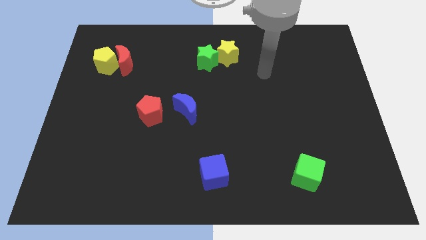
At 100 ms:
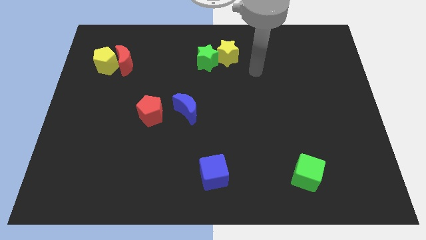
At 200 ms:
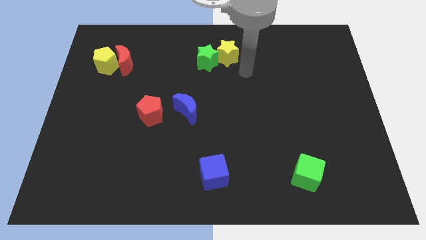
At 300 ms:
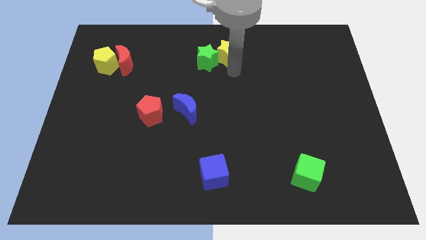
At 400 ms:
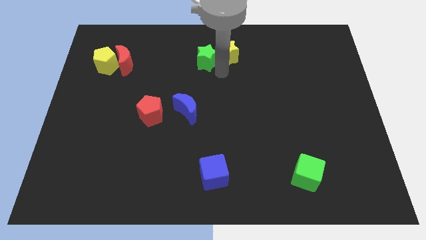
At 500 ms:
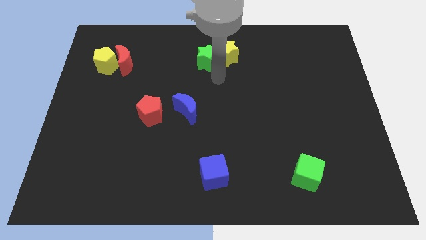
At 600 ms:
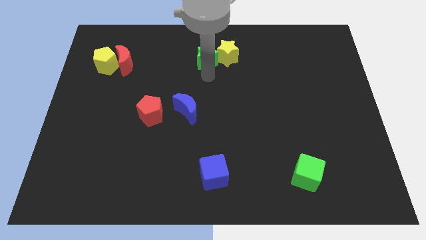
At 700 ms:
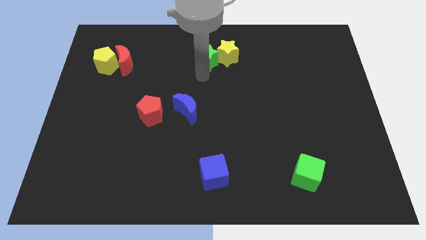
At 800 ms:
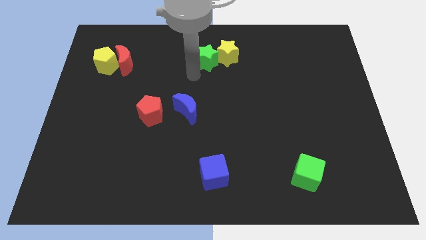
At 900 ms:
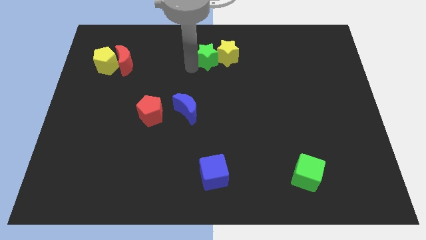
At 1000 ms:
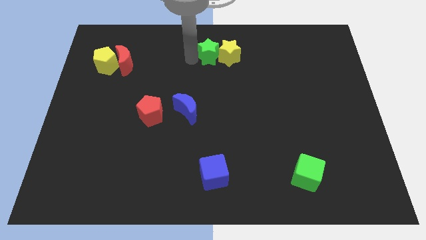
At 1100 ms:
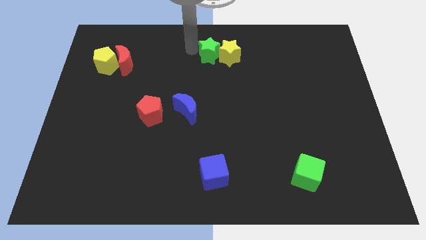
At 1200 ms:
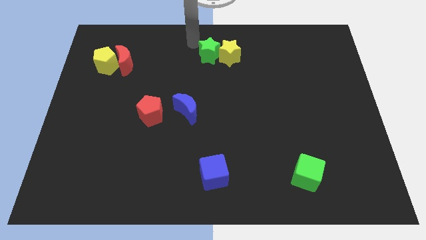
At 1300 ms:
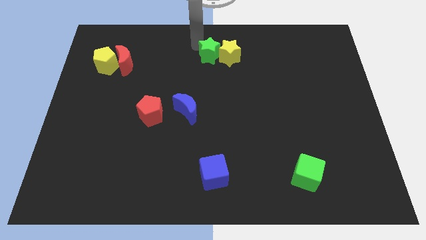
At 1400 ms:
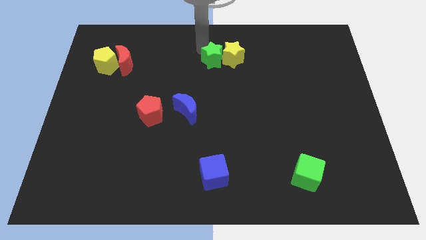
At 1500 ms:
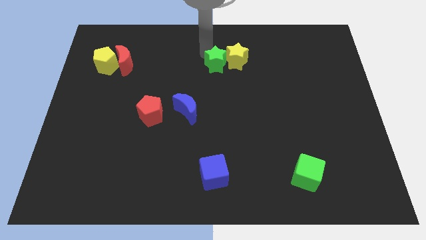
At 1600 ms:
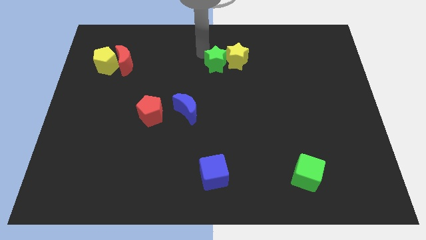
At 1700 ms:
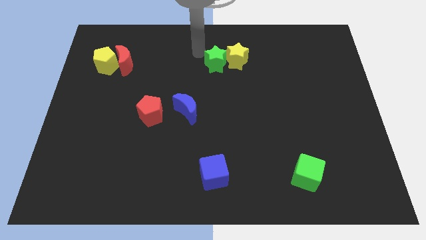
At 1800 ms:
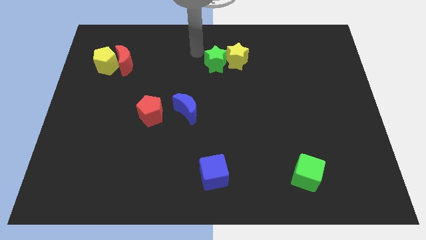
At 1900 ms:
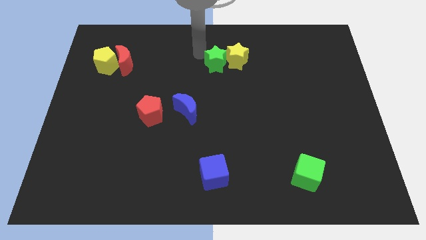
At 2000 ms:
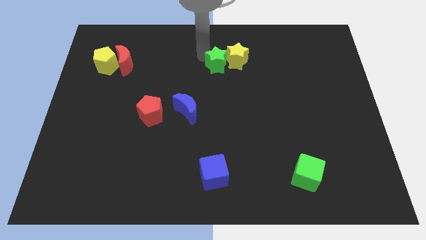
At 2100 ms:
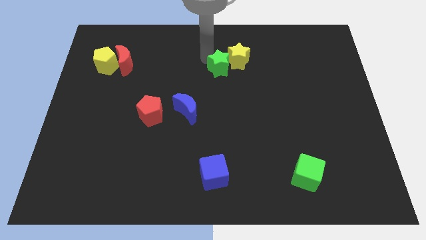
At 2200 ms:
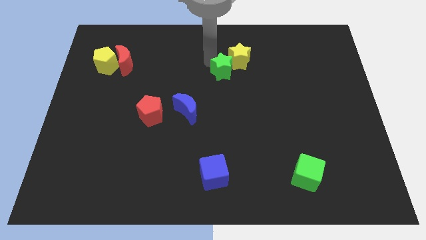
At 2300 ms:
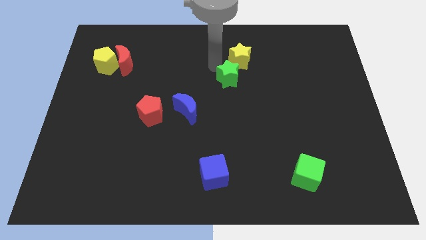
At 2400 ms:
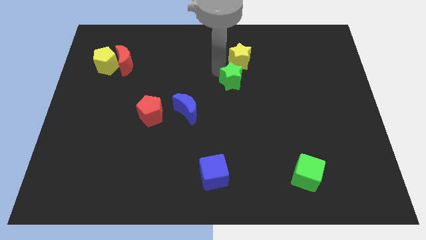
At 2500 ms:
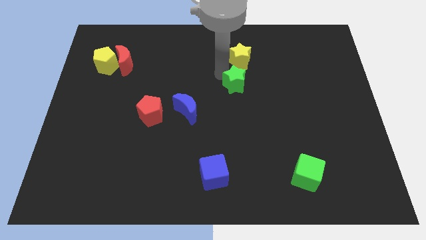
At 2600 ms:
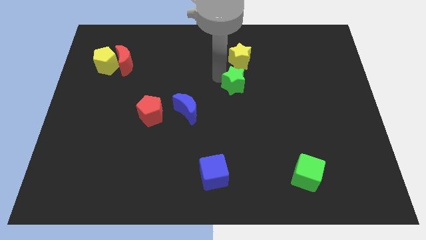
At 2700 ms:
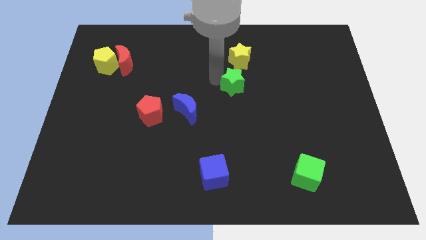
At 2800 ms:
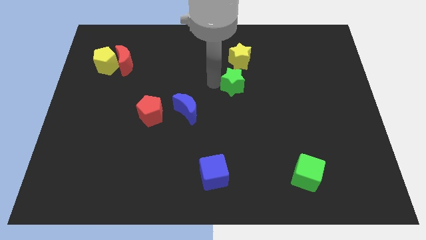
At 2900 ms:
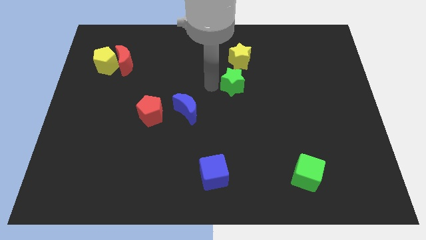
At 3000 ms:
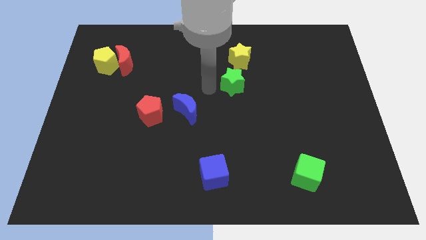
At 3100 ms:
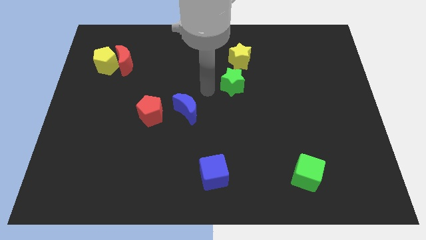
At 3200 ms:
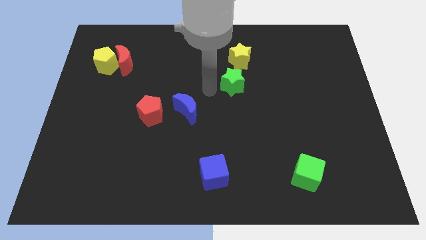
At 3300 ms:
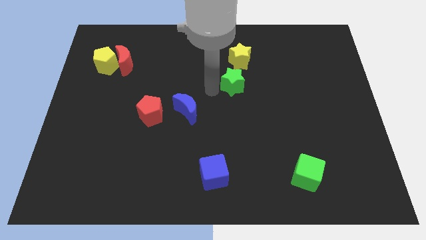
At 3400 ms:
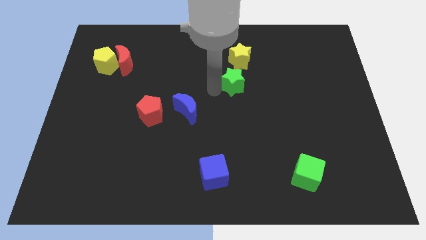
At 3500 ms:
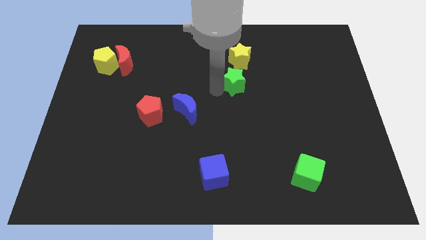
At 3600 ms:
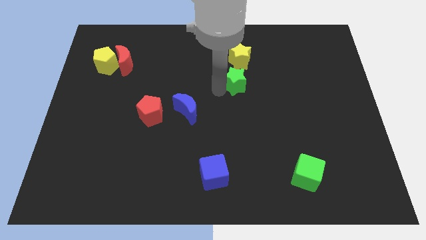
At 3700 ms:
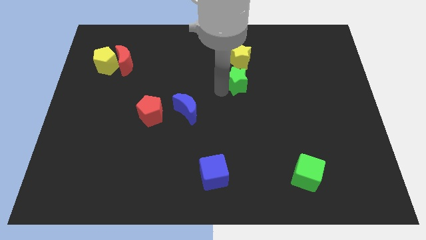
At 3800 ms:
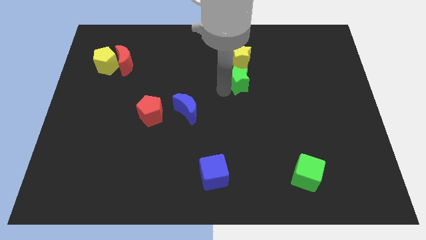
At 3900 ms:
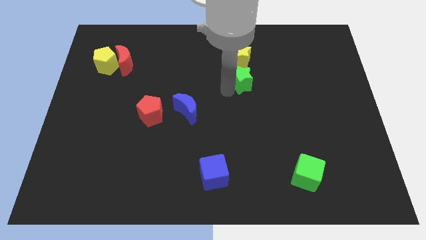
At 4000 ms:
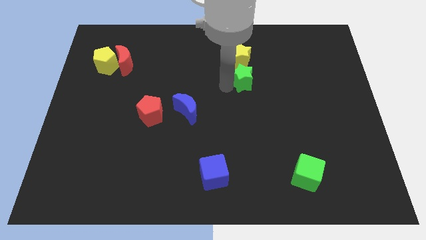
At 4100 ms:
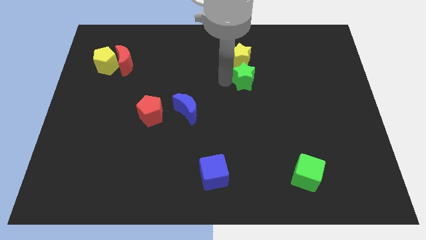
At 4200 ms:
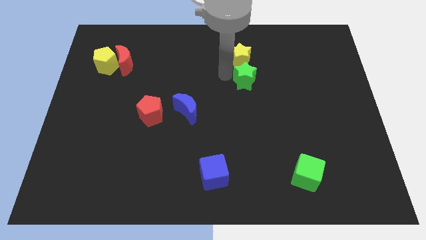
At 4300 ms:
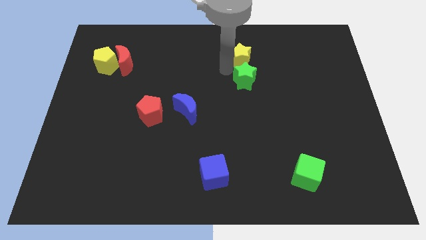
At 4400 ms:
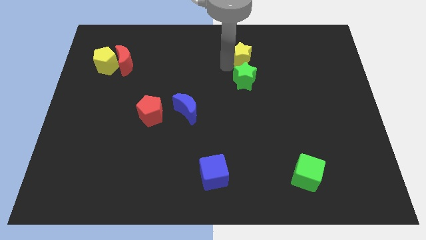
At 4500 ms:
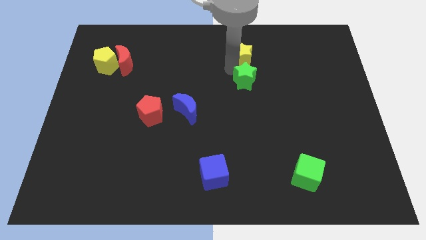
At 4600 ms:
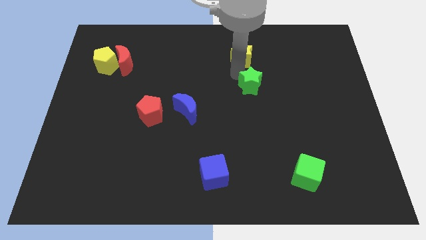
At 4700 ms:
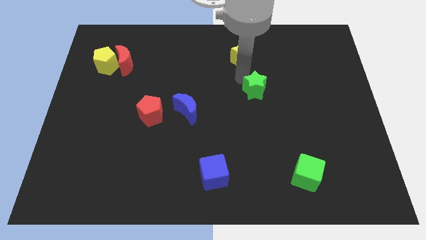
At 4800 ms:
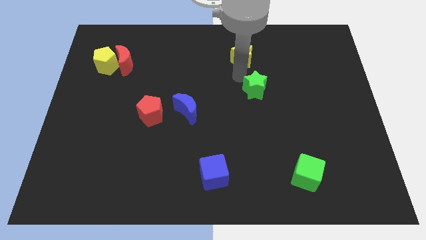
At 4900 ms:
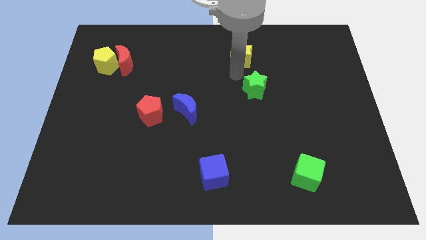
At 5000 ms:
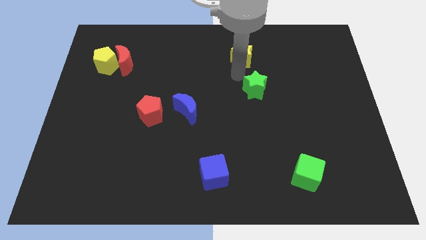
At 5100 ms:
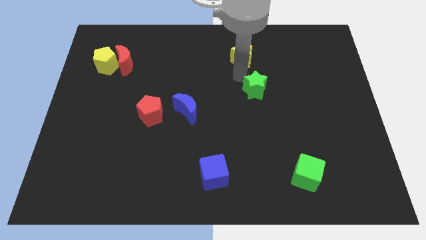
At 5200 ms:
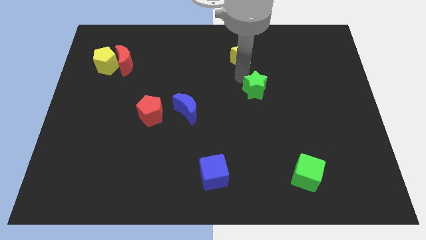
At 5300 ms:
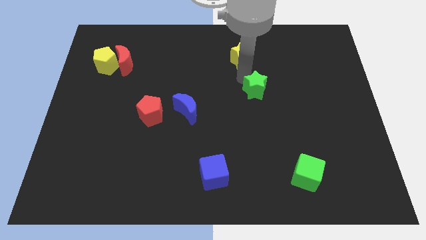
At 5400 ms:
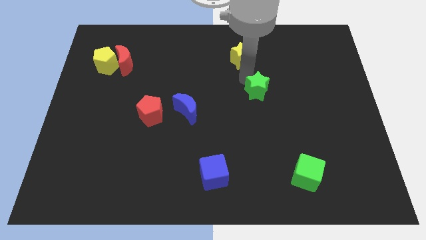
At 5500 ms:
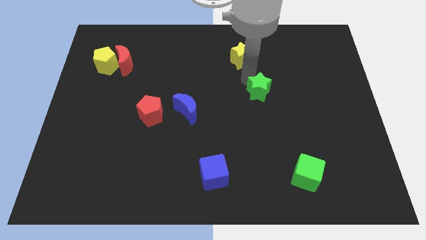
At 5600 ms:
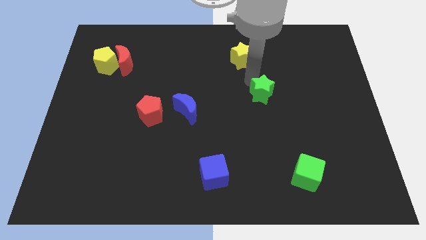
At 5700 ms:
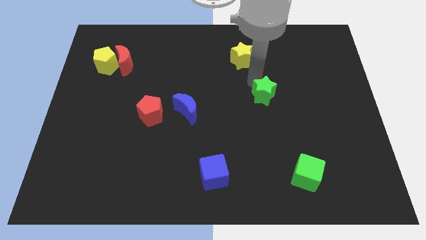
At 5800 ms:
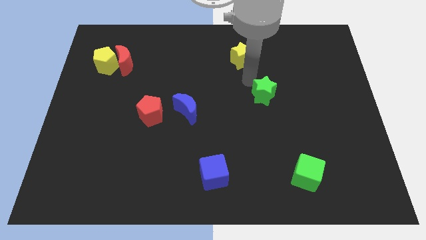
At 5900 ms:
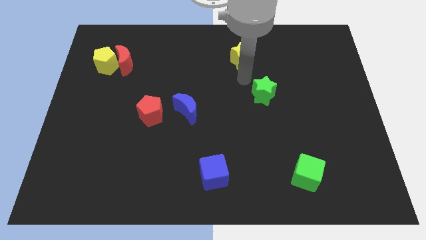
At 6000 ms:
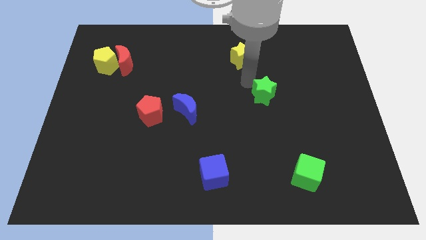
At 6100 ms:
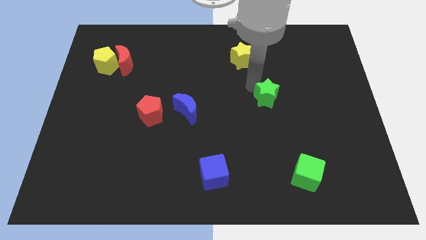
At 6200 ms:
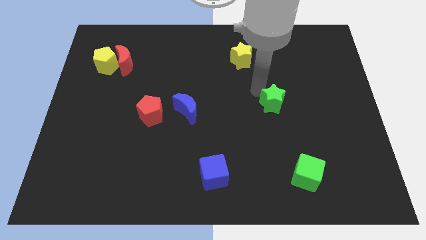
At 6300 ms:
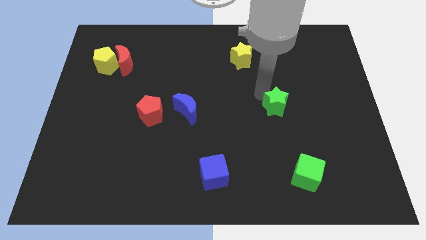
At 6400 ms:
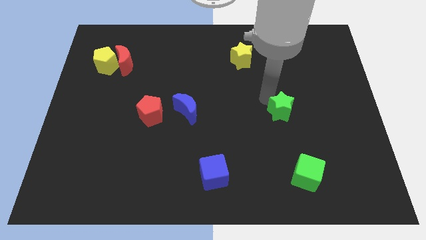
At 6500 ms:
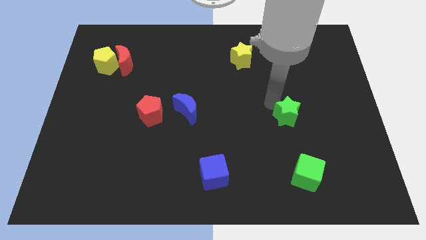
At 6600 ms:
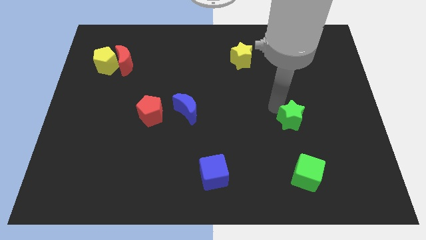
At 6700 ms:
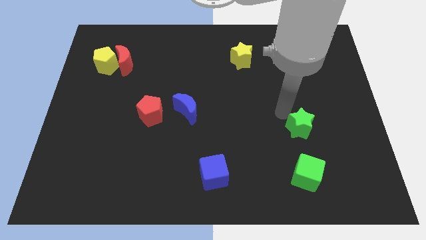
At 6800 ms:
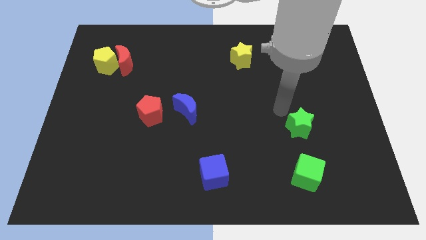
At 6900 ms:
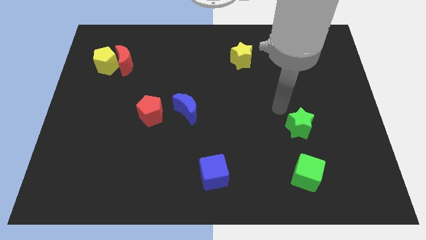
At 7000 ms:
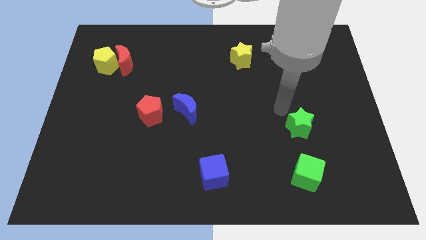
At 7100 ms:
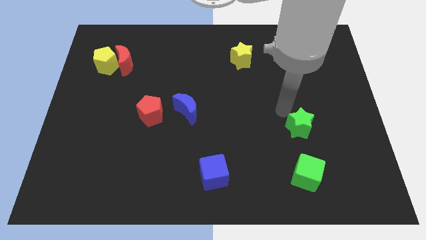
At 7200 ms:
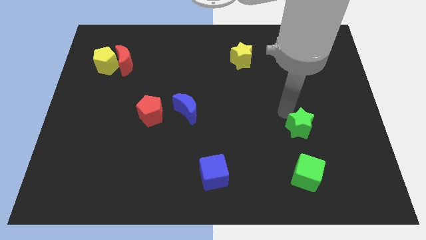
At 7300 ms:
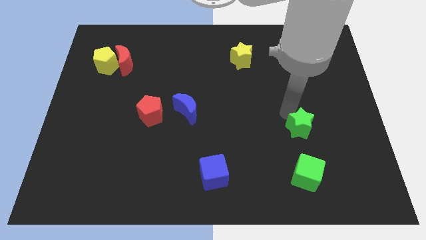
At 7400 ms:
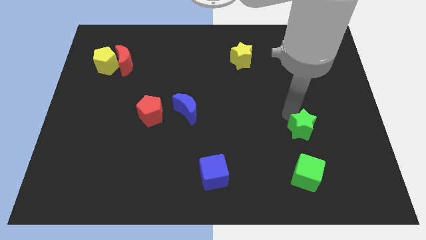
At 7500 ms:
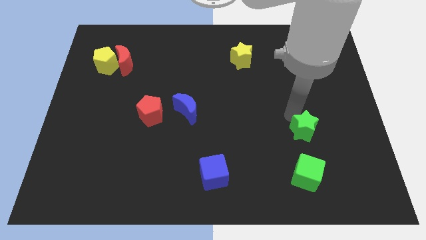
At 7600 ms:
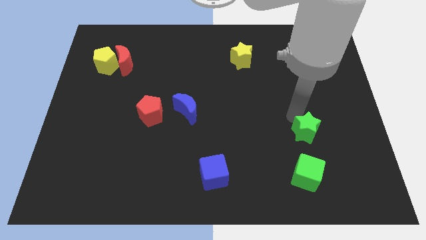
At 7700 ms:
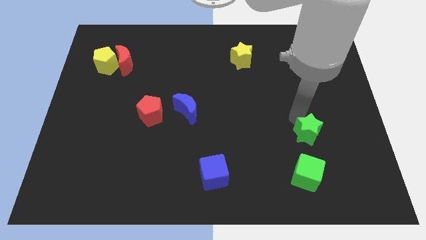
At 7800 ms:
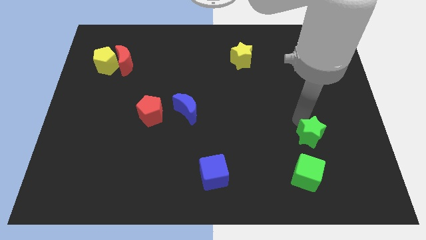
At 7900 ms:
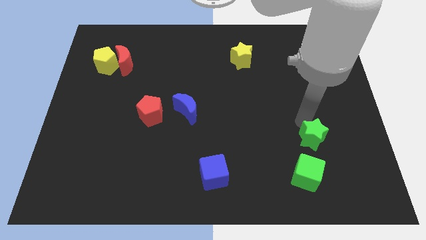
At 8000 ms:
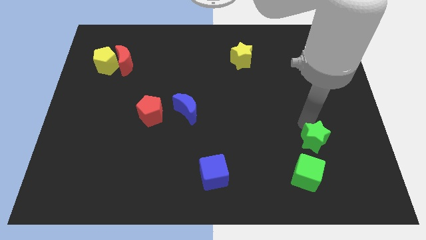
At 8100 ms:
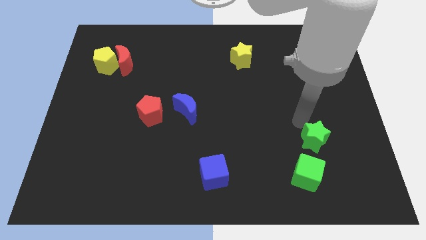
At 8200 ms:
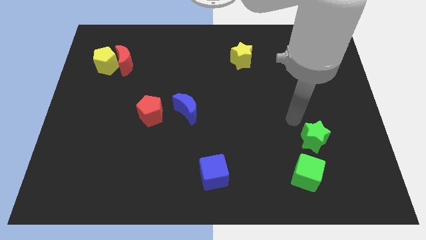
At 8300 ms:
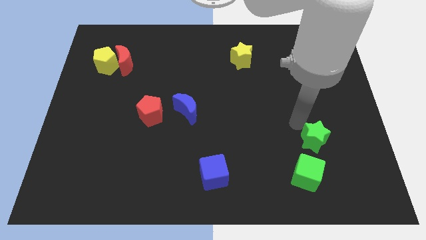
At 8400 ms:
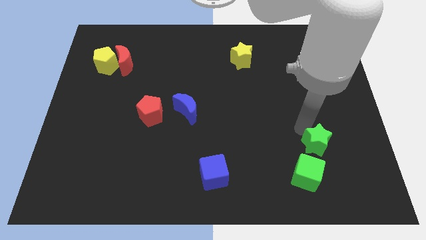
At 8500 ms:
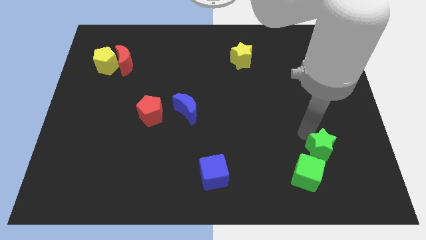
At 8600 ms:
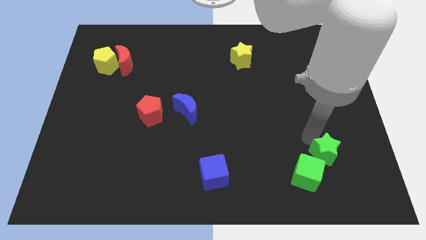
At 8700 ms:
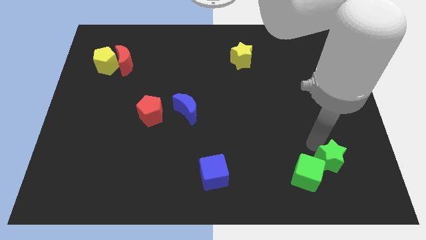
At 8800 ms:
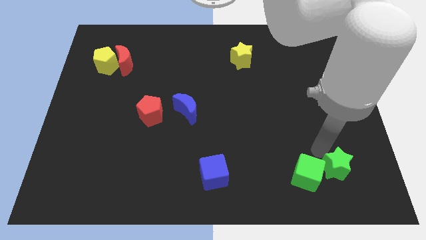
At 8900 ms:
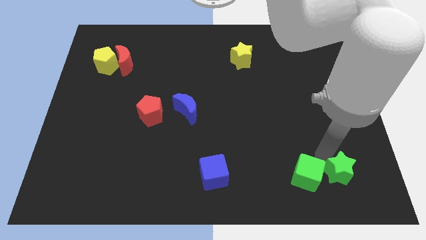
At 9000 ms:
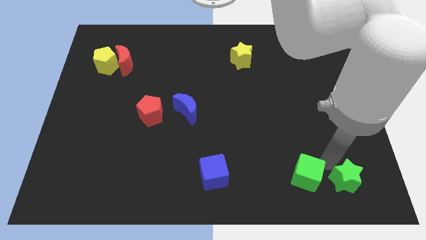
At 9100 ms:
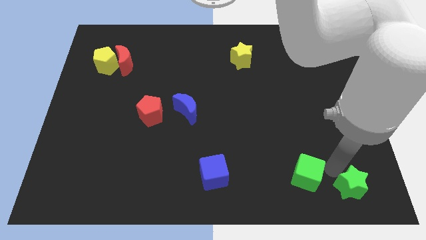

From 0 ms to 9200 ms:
put the green star to the bottom right
